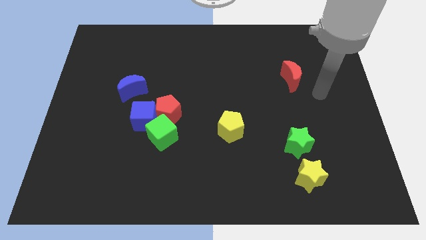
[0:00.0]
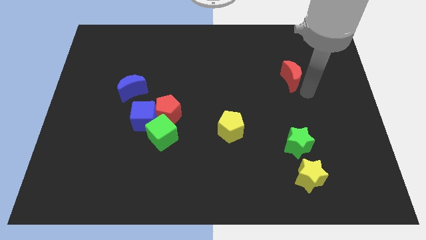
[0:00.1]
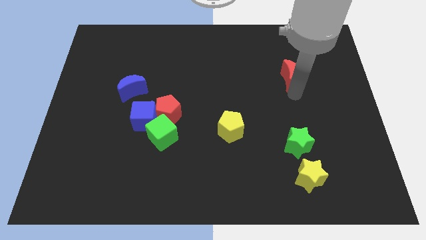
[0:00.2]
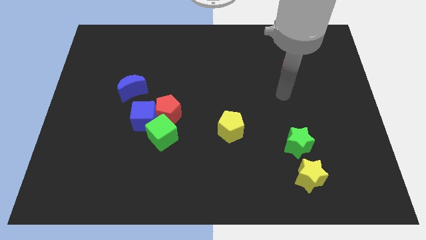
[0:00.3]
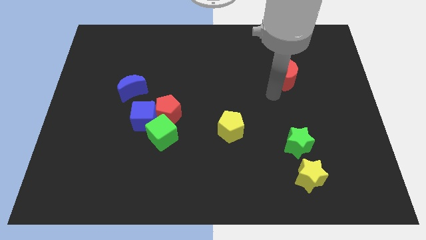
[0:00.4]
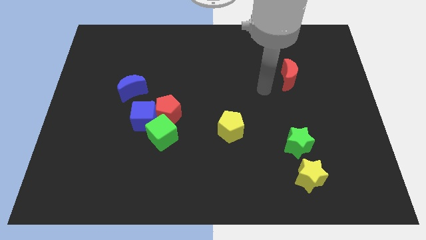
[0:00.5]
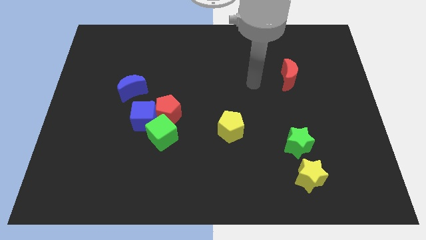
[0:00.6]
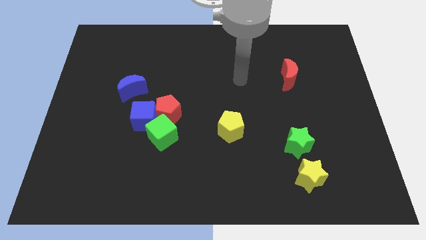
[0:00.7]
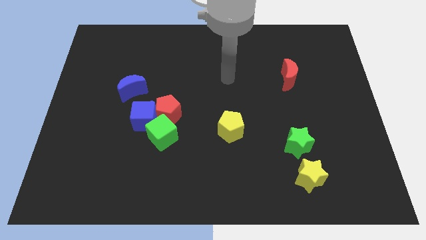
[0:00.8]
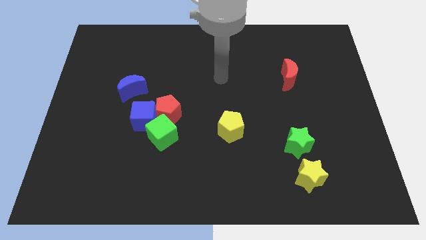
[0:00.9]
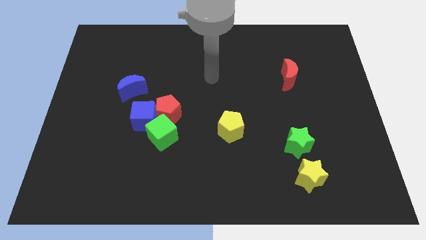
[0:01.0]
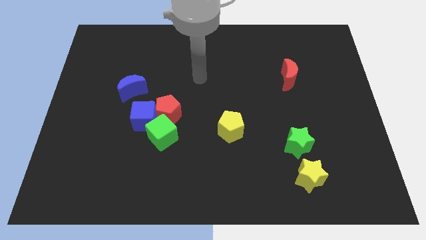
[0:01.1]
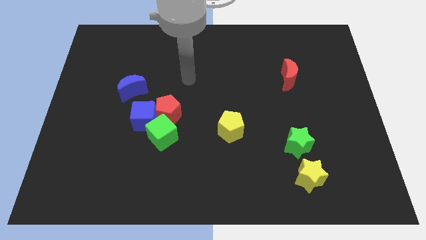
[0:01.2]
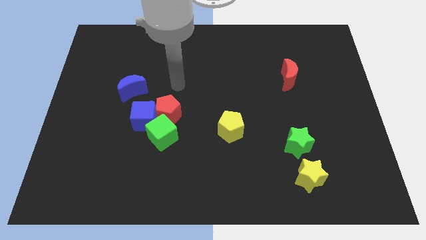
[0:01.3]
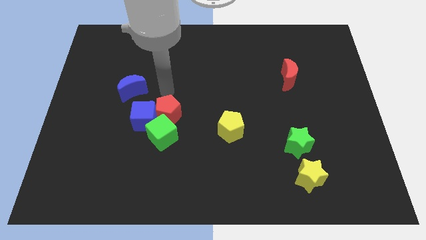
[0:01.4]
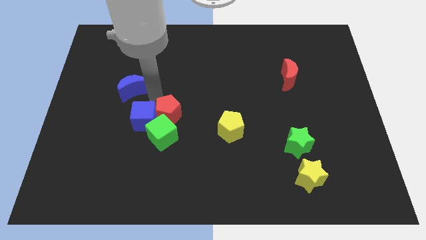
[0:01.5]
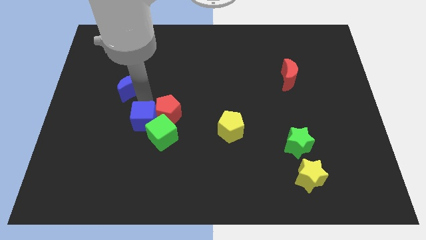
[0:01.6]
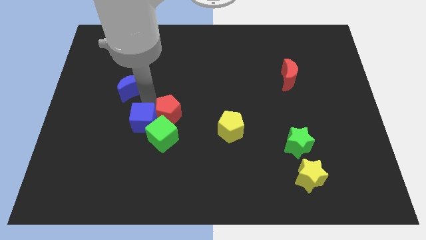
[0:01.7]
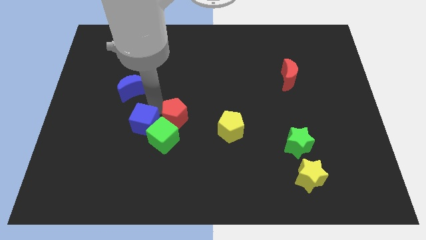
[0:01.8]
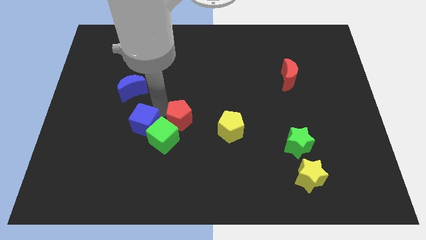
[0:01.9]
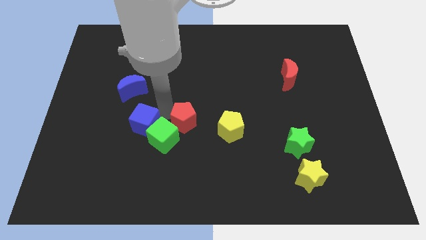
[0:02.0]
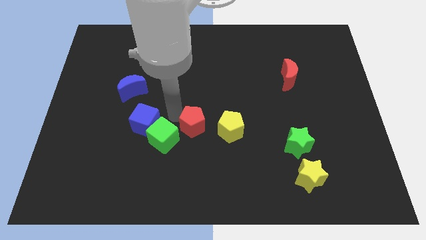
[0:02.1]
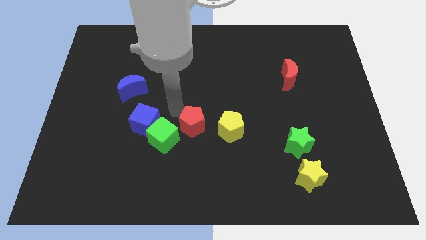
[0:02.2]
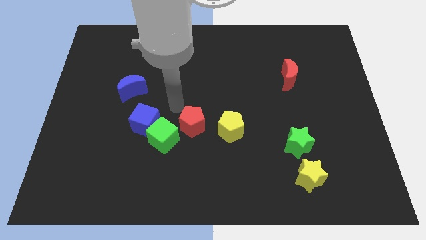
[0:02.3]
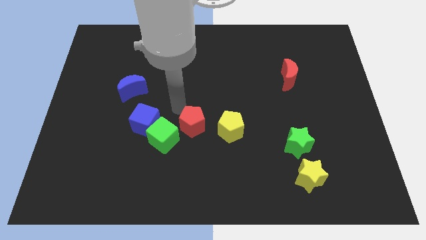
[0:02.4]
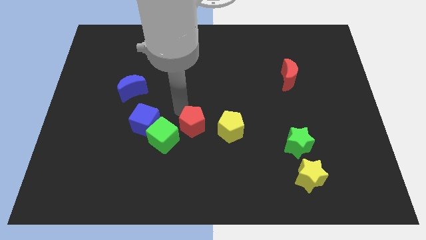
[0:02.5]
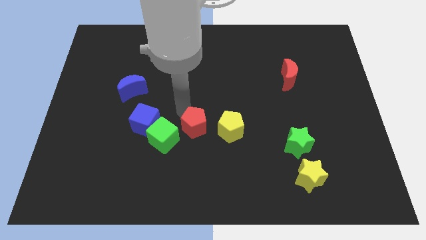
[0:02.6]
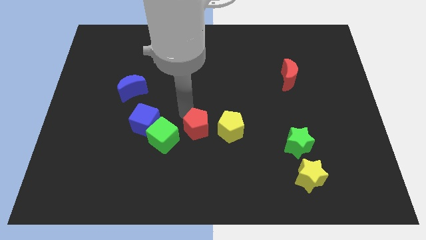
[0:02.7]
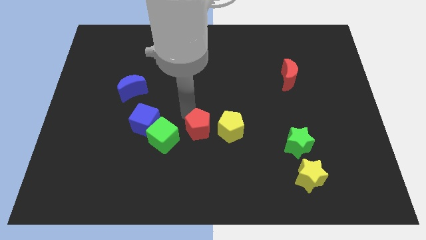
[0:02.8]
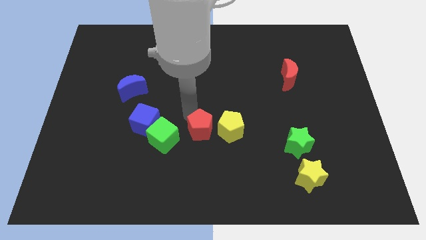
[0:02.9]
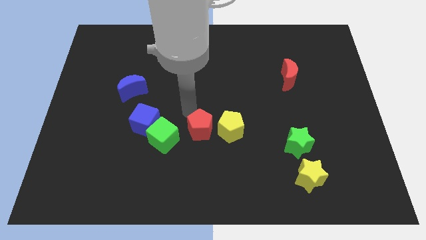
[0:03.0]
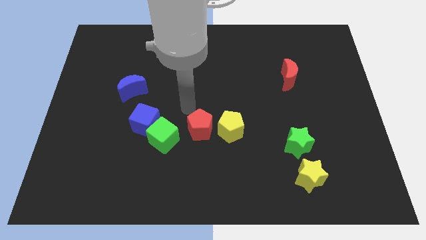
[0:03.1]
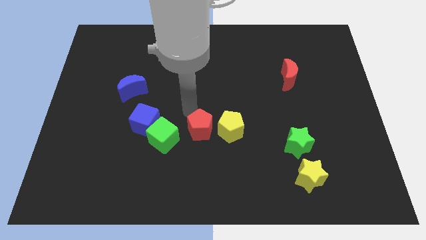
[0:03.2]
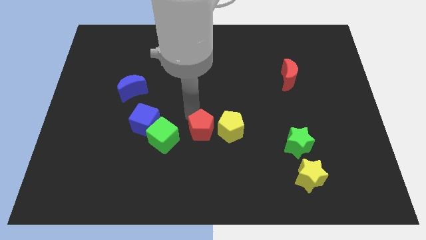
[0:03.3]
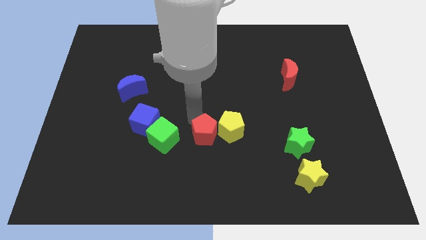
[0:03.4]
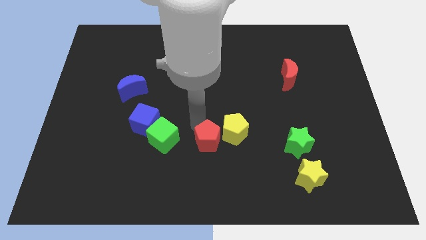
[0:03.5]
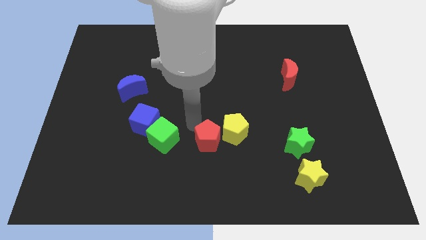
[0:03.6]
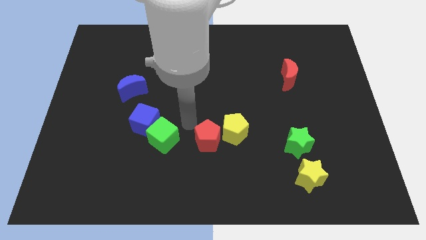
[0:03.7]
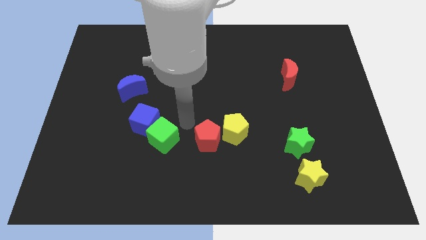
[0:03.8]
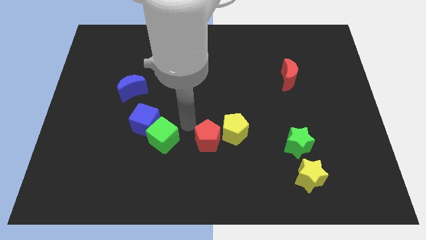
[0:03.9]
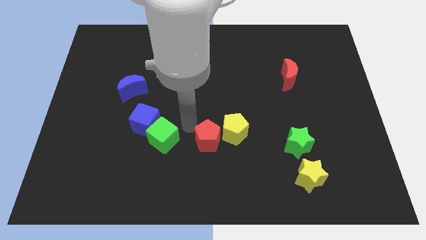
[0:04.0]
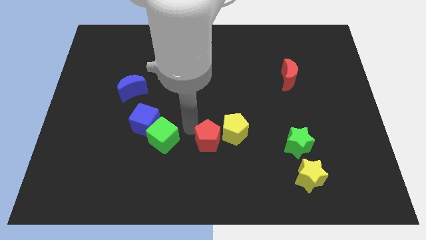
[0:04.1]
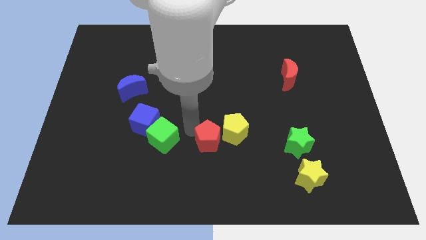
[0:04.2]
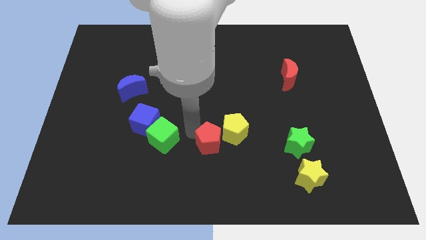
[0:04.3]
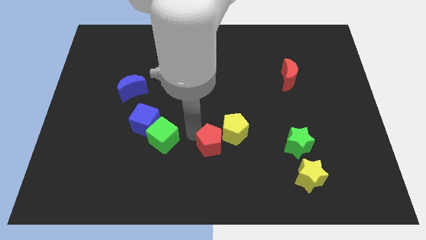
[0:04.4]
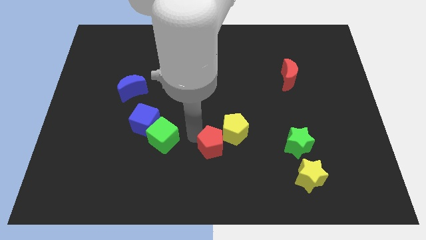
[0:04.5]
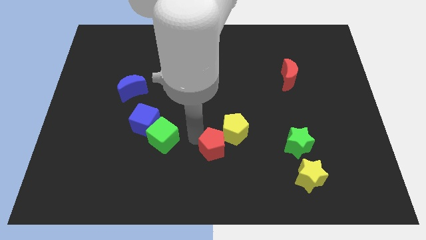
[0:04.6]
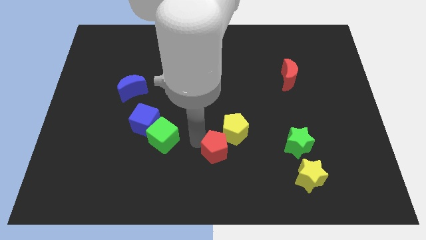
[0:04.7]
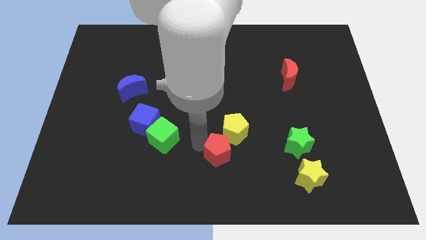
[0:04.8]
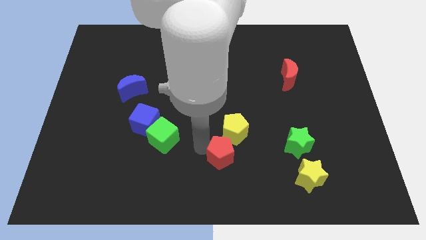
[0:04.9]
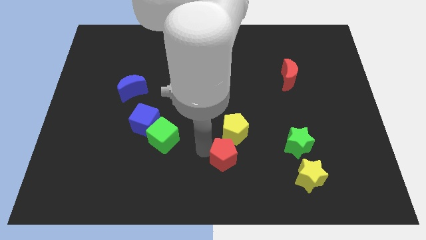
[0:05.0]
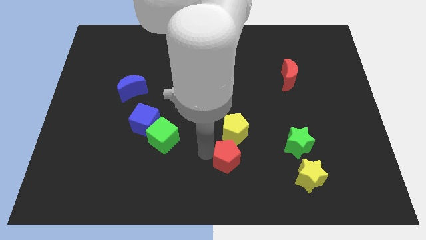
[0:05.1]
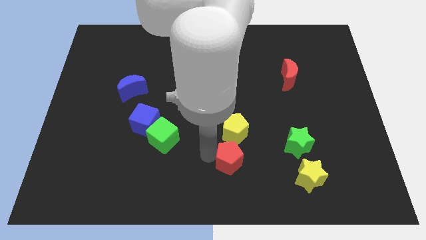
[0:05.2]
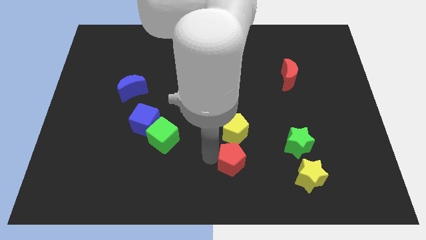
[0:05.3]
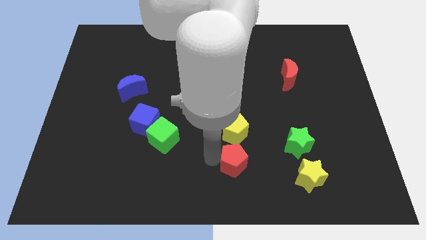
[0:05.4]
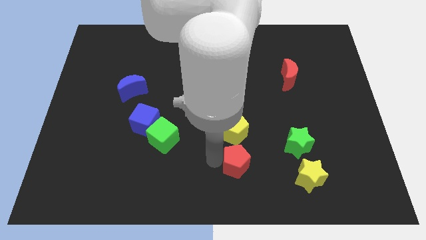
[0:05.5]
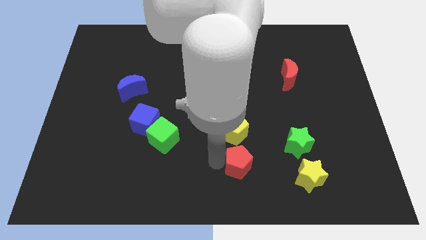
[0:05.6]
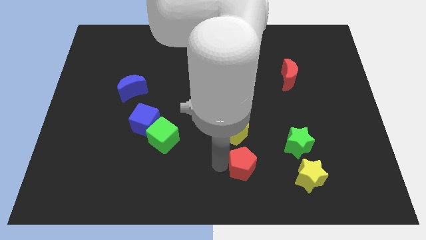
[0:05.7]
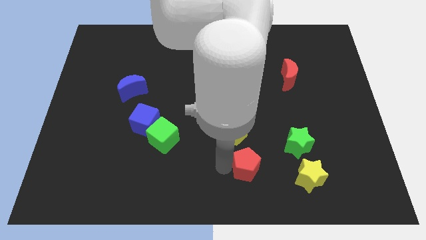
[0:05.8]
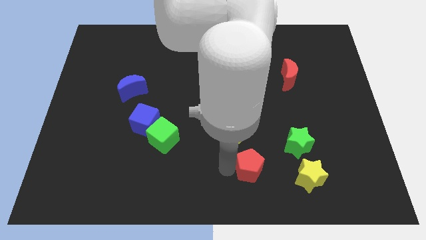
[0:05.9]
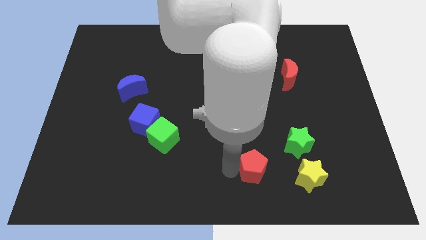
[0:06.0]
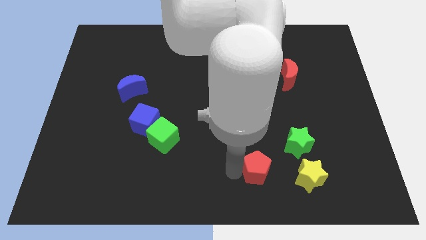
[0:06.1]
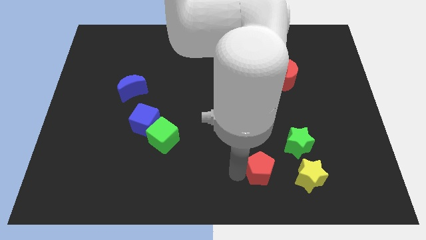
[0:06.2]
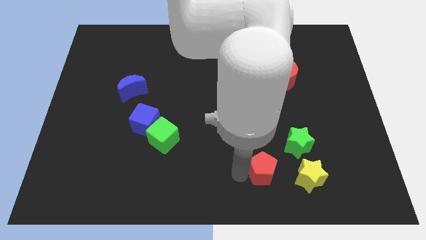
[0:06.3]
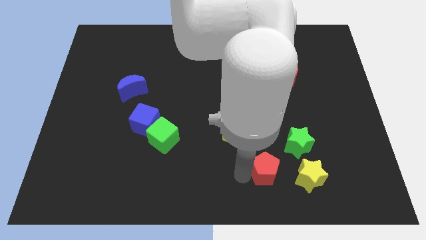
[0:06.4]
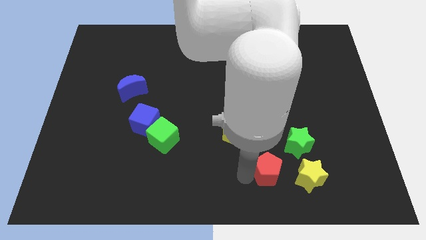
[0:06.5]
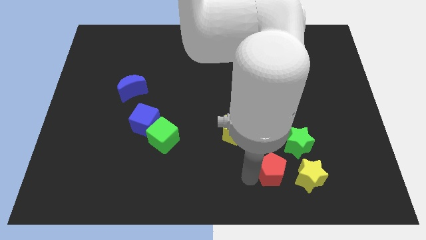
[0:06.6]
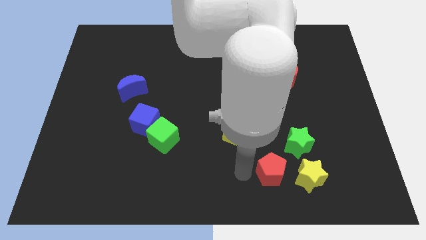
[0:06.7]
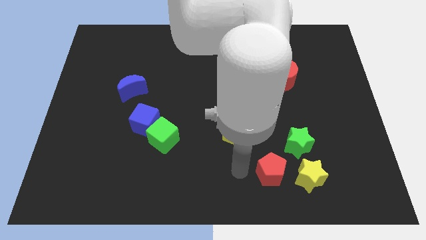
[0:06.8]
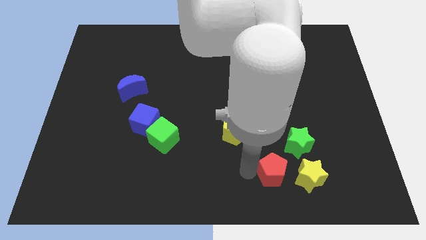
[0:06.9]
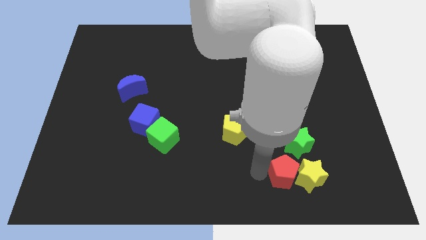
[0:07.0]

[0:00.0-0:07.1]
push the red pentagon to the yellow star
